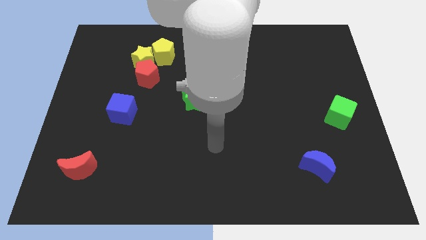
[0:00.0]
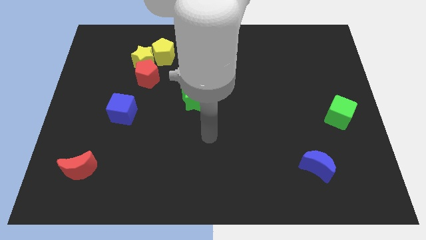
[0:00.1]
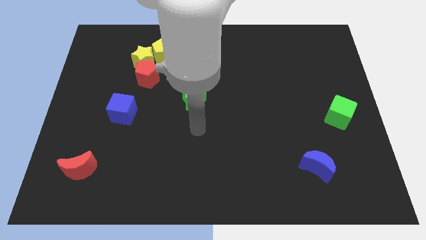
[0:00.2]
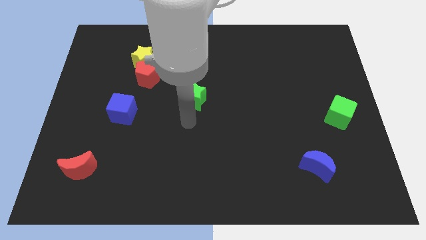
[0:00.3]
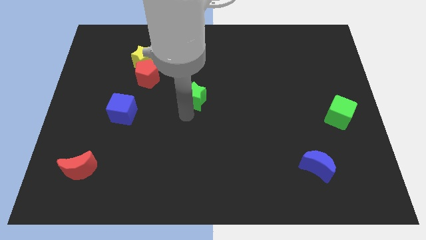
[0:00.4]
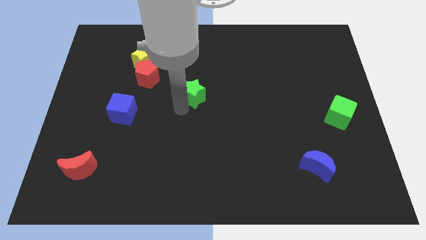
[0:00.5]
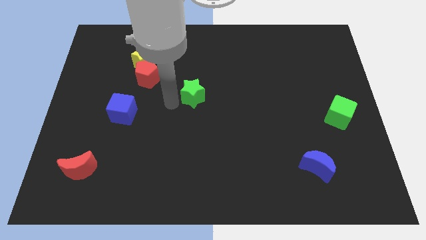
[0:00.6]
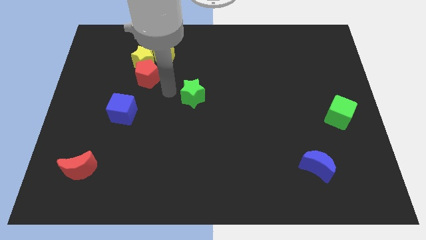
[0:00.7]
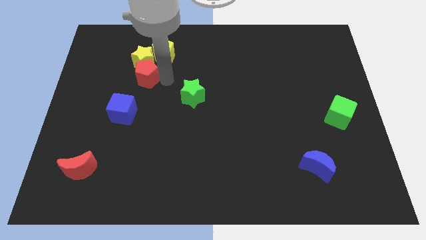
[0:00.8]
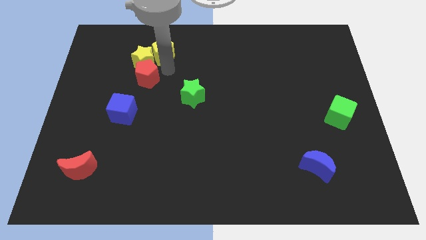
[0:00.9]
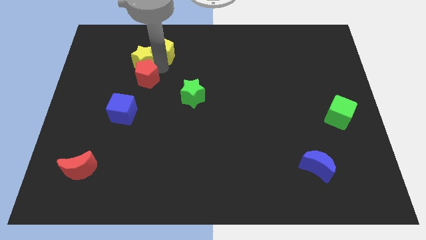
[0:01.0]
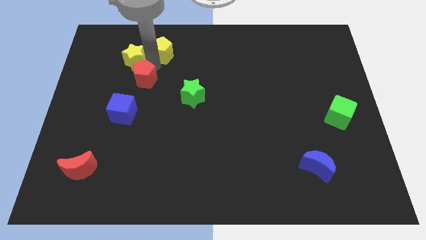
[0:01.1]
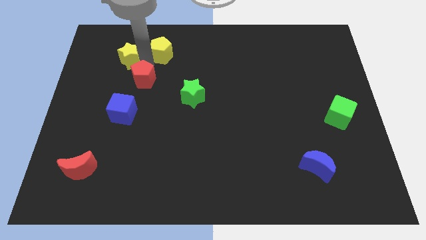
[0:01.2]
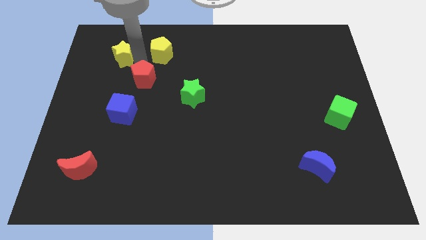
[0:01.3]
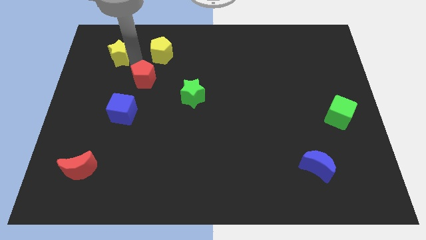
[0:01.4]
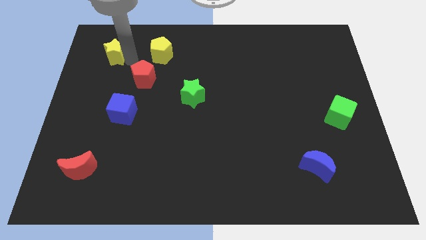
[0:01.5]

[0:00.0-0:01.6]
separate the yellow star from the red pentagon and yellow pentagon

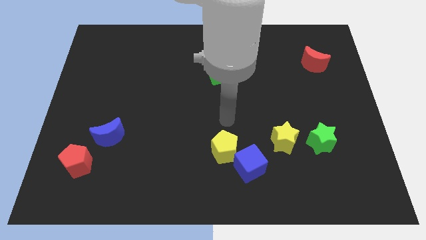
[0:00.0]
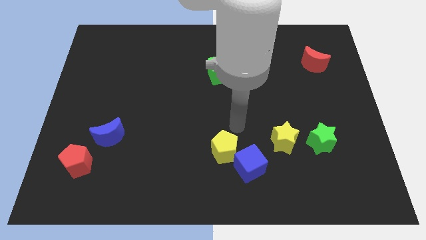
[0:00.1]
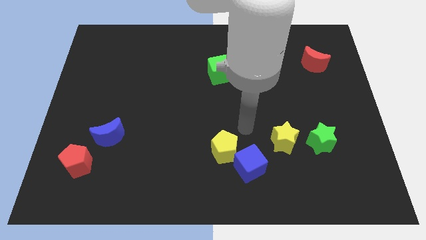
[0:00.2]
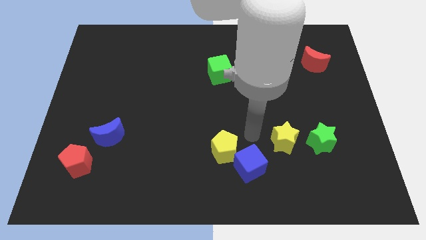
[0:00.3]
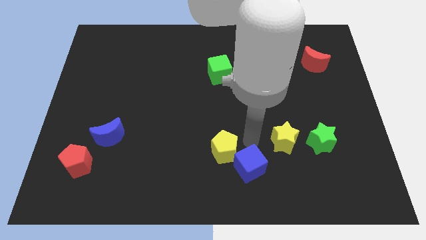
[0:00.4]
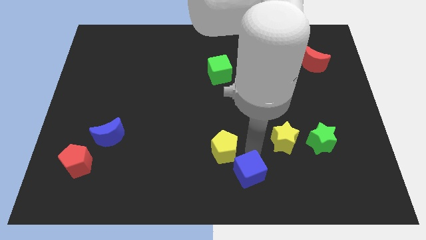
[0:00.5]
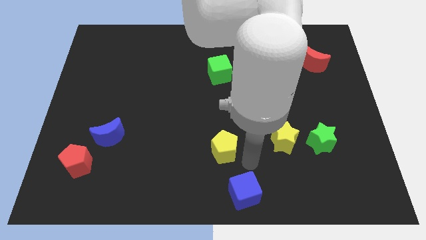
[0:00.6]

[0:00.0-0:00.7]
pull the yellow pentagon apart from the blue cube

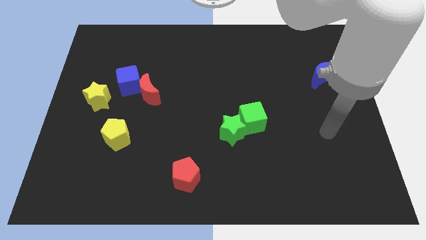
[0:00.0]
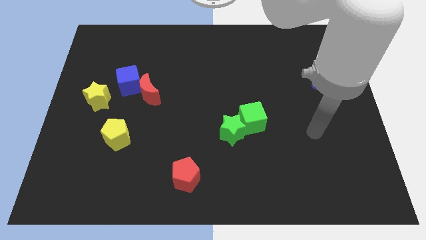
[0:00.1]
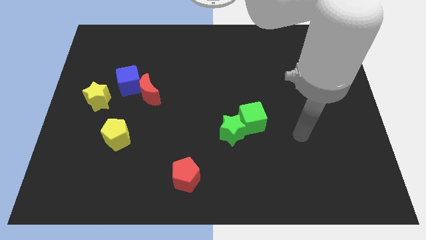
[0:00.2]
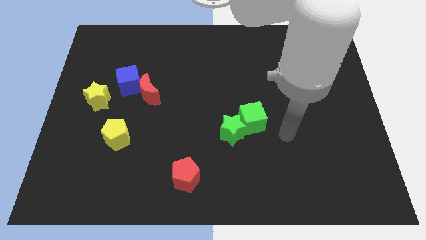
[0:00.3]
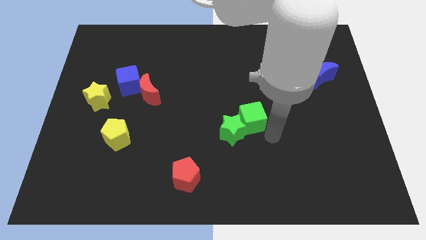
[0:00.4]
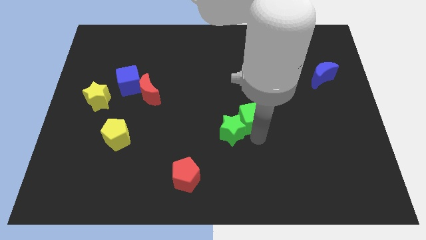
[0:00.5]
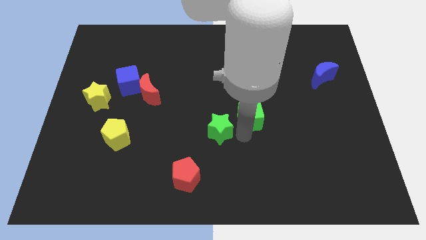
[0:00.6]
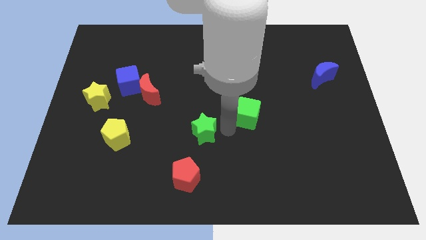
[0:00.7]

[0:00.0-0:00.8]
pull the green cube apart from the green star

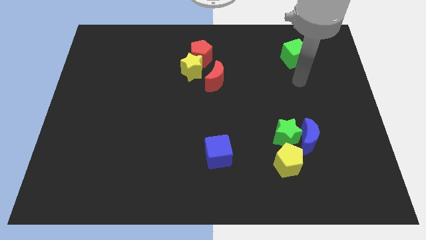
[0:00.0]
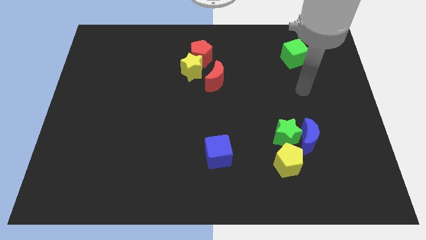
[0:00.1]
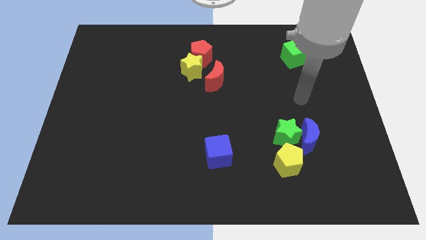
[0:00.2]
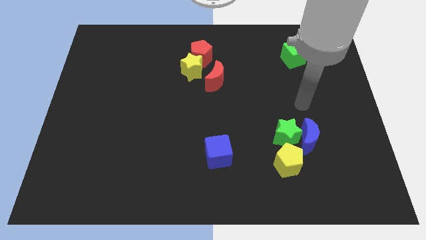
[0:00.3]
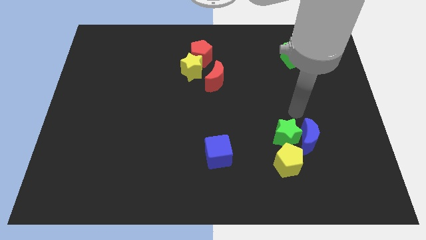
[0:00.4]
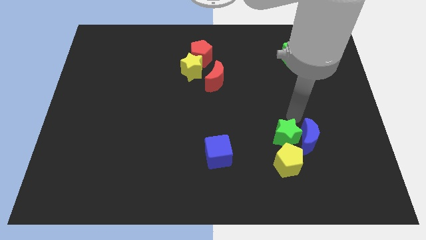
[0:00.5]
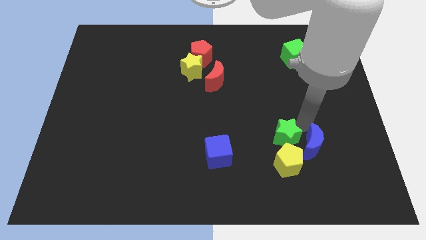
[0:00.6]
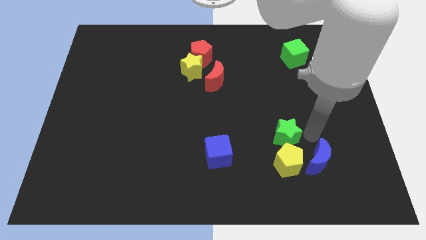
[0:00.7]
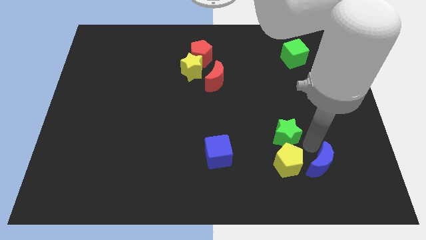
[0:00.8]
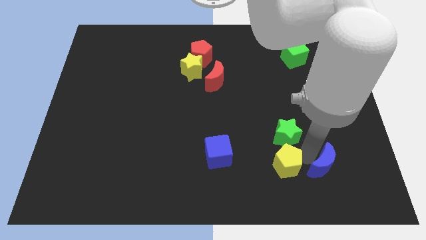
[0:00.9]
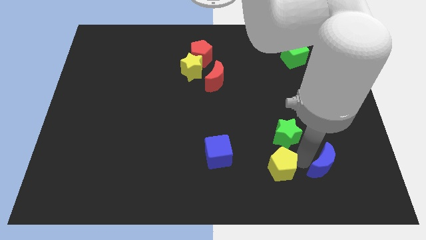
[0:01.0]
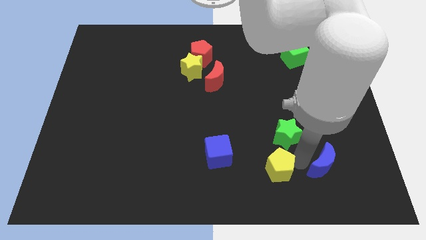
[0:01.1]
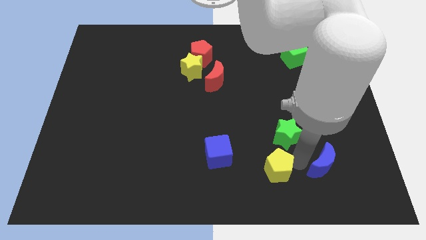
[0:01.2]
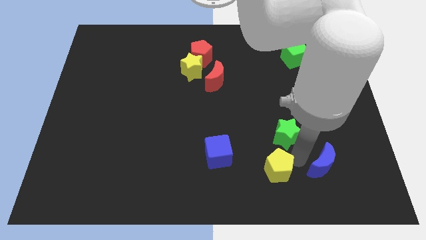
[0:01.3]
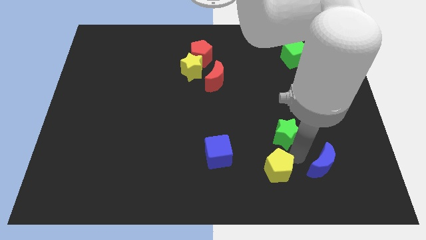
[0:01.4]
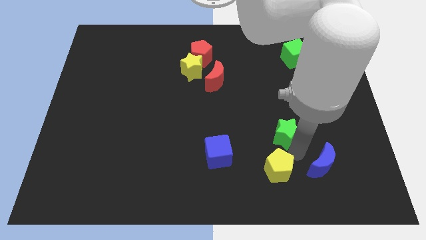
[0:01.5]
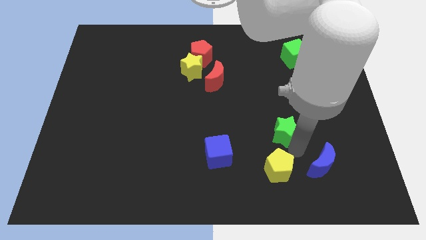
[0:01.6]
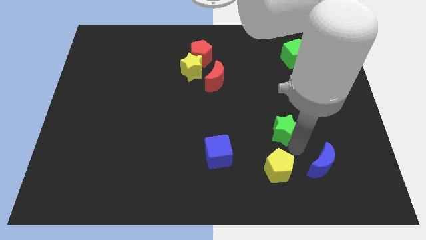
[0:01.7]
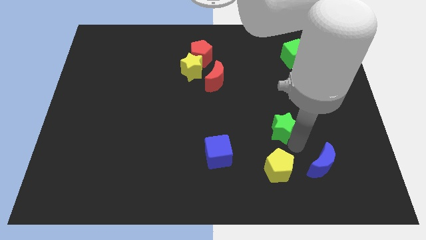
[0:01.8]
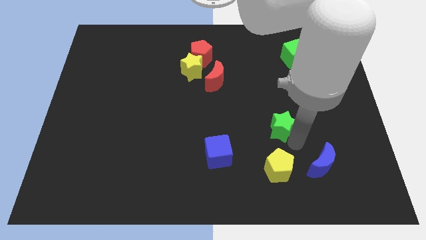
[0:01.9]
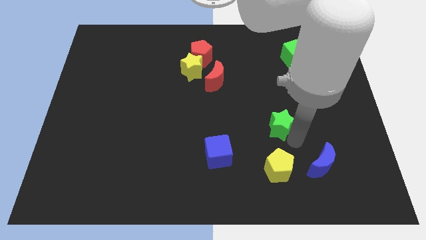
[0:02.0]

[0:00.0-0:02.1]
separate the green star from the blue moon and yellow pentagon

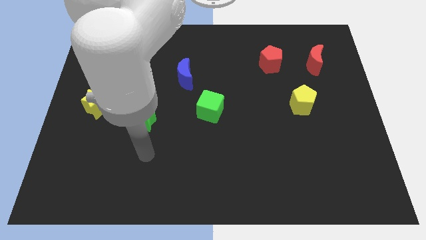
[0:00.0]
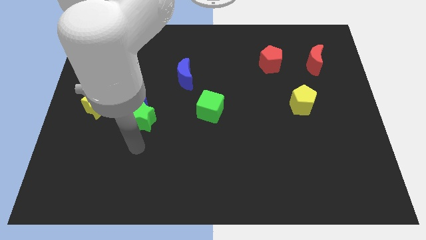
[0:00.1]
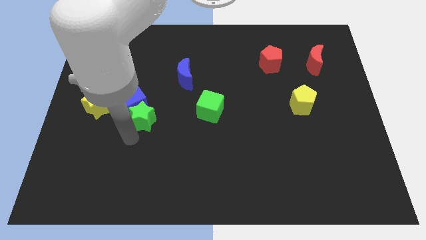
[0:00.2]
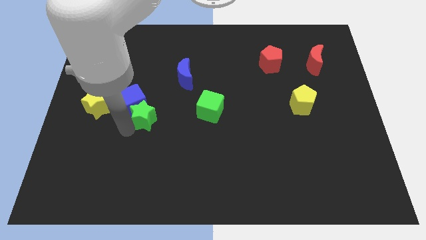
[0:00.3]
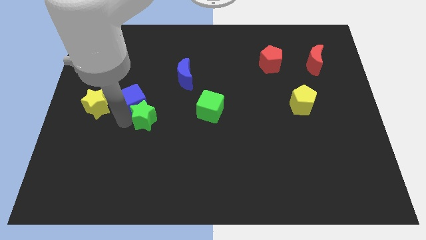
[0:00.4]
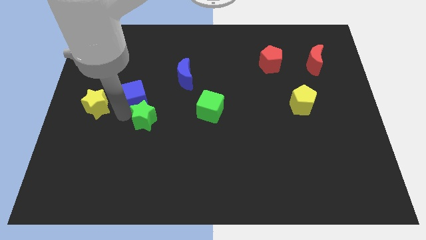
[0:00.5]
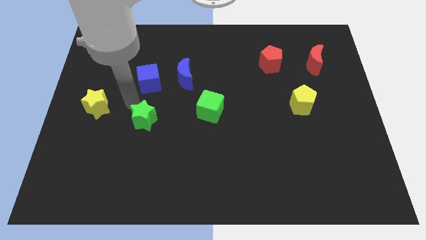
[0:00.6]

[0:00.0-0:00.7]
separate the green star from the blue cube

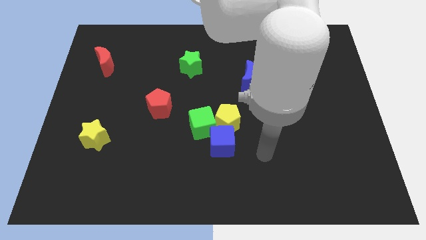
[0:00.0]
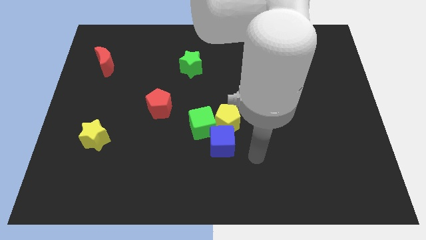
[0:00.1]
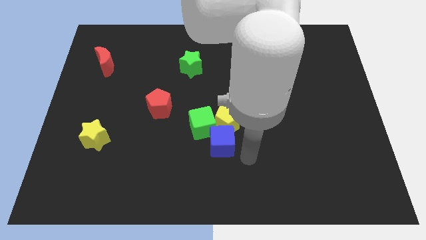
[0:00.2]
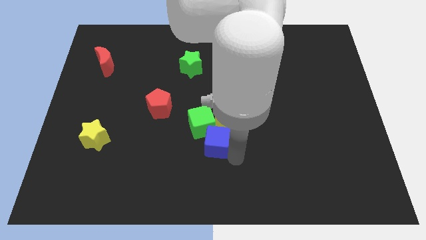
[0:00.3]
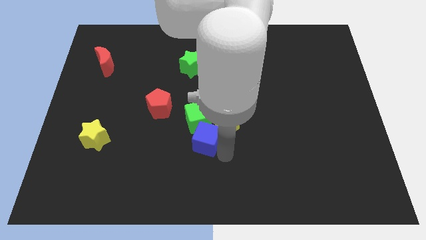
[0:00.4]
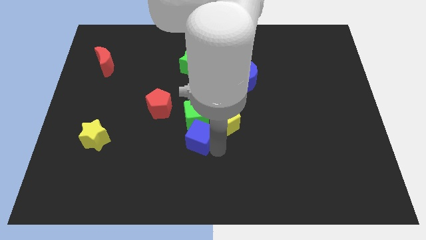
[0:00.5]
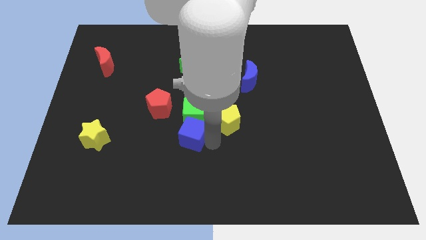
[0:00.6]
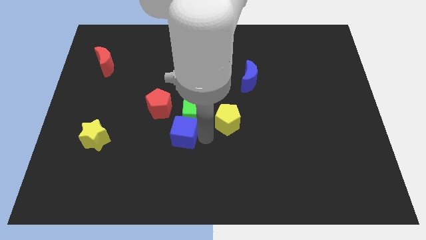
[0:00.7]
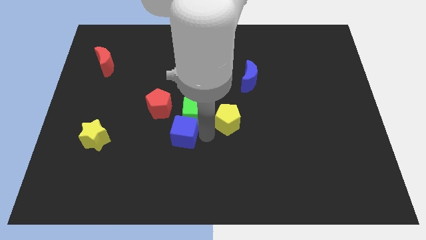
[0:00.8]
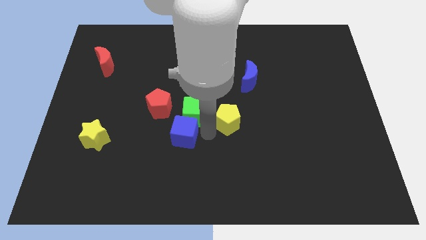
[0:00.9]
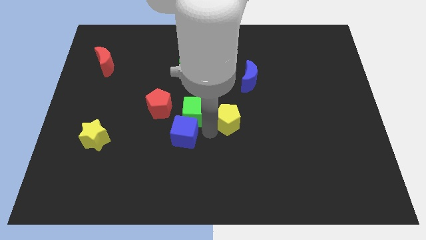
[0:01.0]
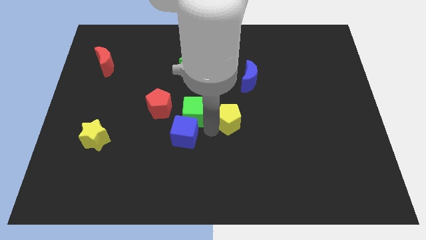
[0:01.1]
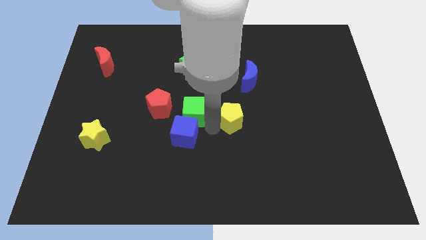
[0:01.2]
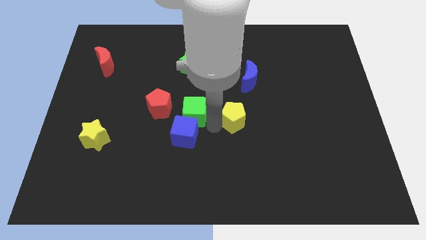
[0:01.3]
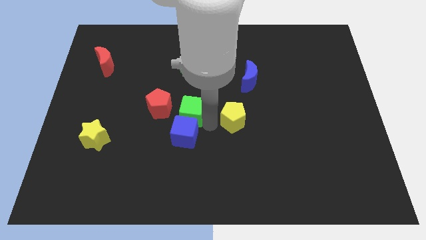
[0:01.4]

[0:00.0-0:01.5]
pull the yellow pentagon apart from the green cube and blue cube

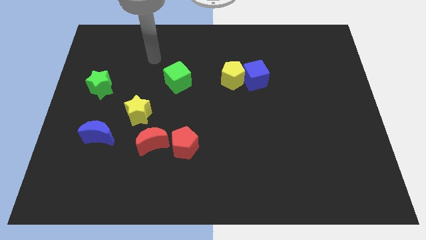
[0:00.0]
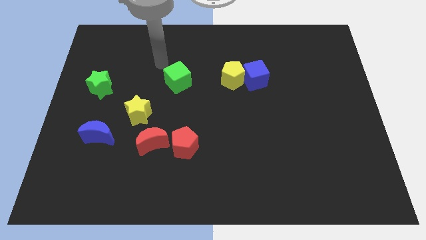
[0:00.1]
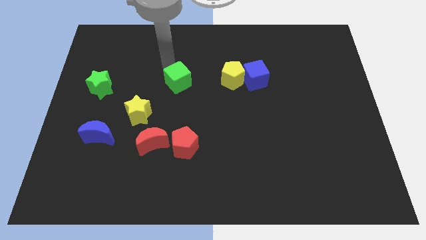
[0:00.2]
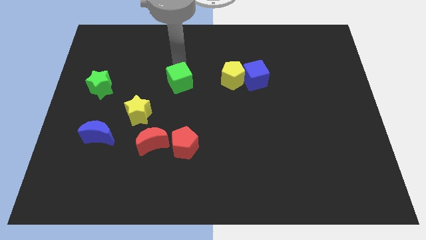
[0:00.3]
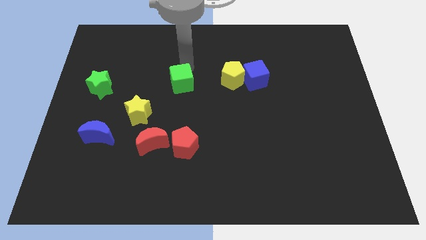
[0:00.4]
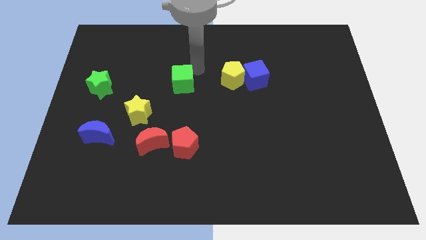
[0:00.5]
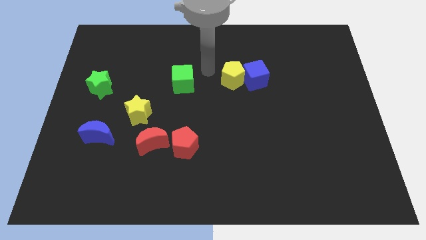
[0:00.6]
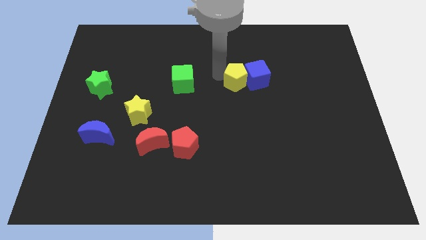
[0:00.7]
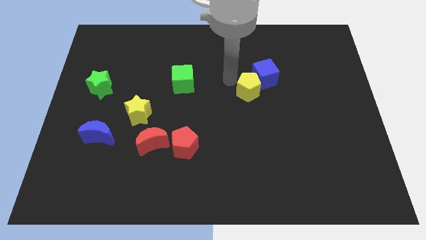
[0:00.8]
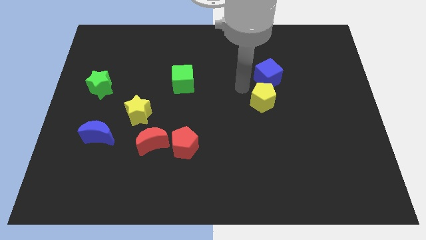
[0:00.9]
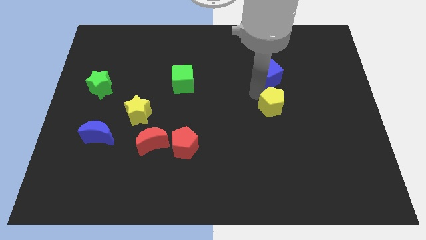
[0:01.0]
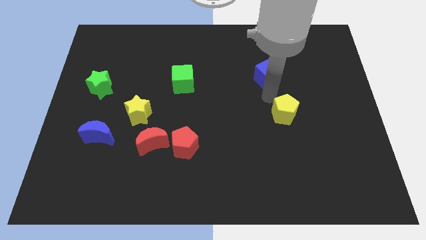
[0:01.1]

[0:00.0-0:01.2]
separate the blue cube from the yellow pentagon

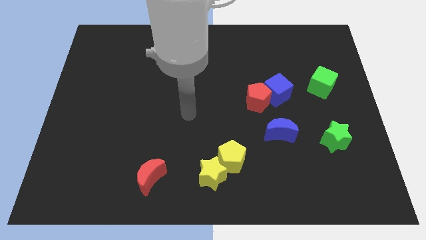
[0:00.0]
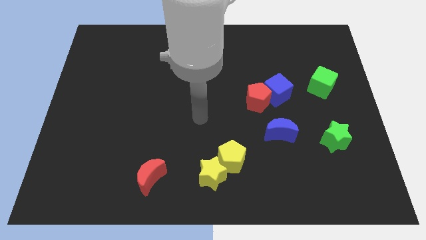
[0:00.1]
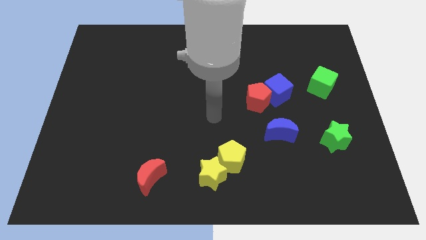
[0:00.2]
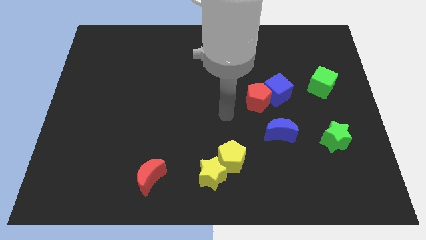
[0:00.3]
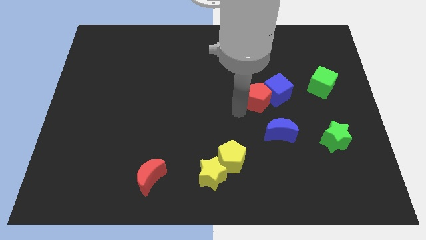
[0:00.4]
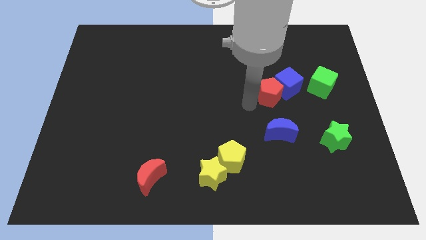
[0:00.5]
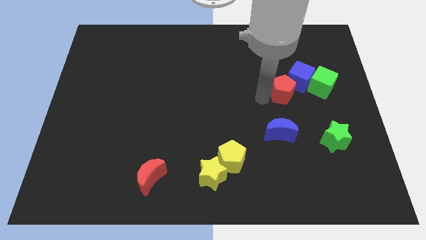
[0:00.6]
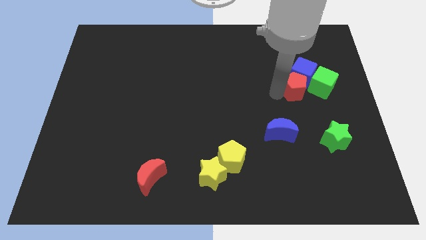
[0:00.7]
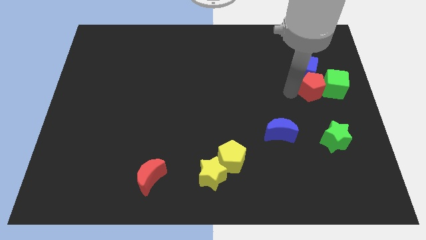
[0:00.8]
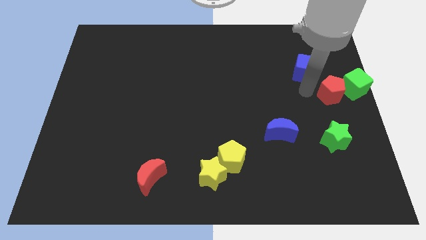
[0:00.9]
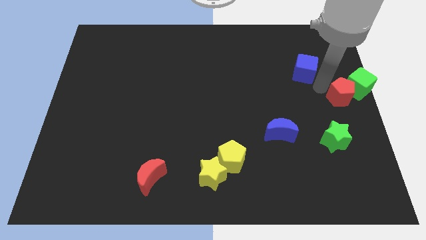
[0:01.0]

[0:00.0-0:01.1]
pull the blue cube apart from the red pentagon
